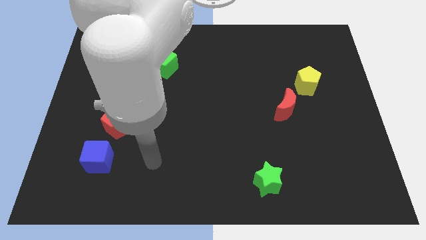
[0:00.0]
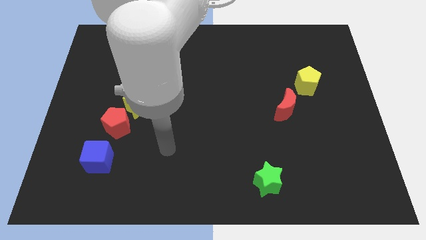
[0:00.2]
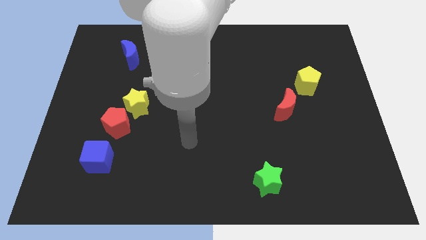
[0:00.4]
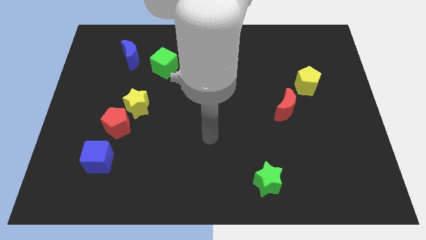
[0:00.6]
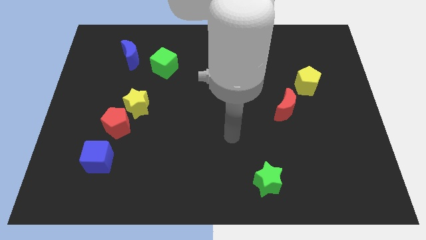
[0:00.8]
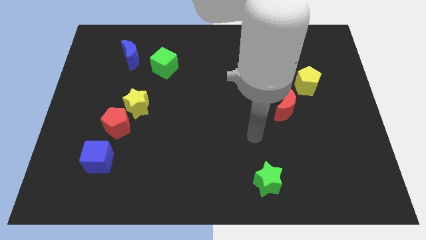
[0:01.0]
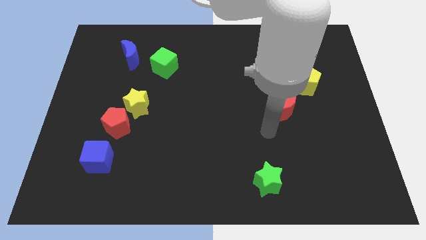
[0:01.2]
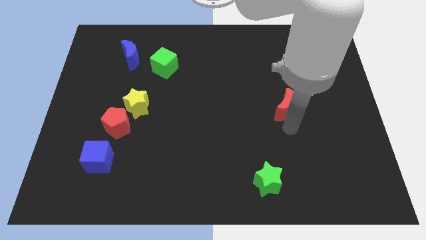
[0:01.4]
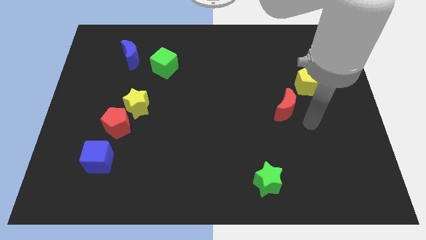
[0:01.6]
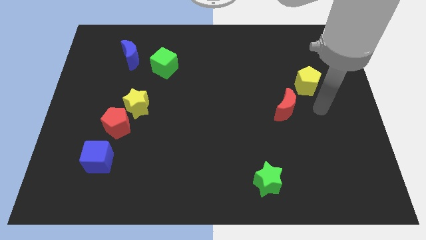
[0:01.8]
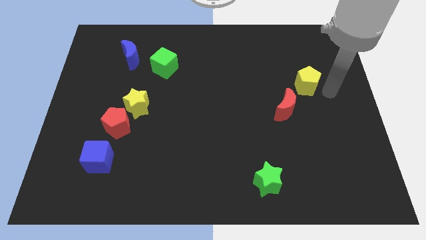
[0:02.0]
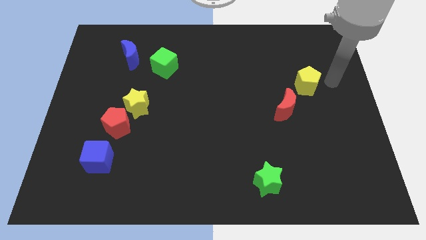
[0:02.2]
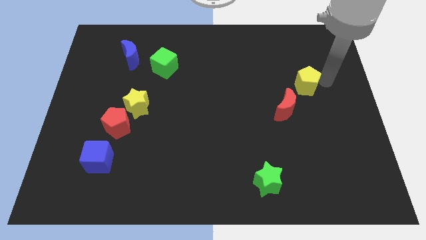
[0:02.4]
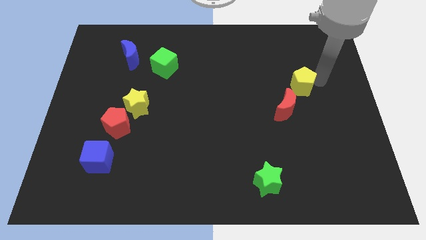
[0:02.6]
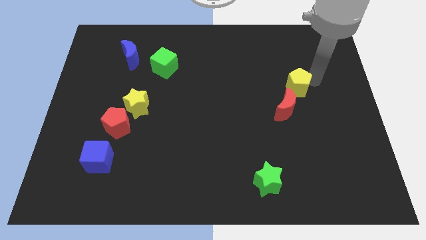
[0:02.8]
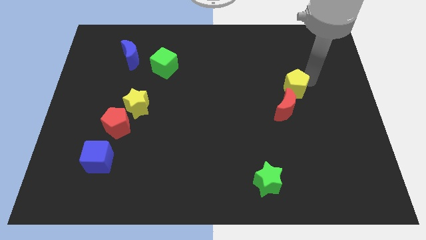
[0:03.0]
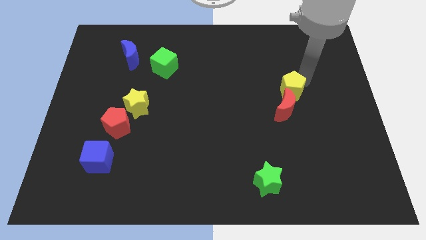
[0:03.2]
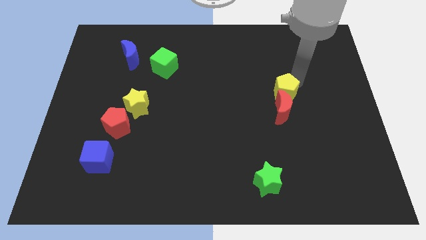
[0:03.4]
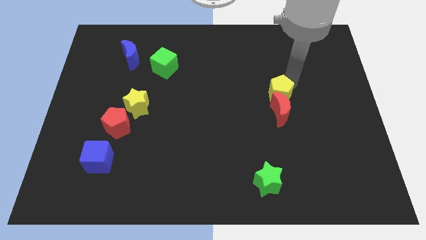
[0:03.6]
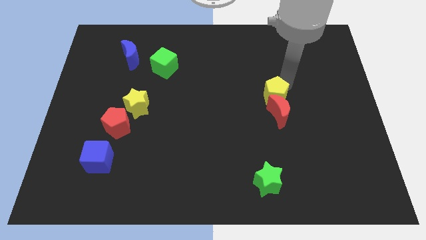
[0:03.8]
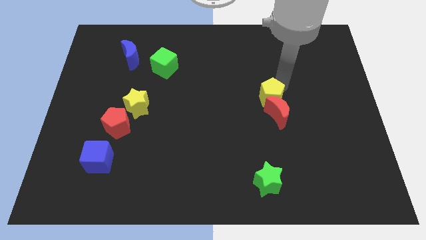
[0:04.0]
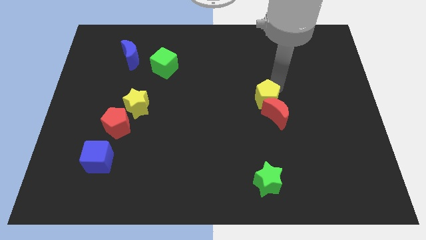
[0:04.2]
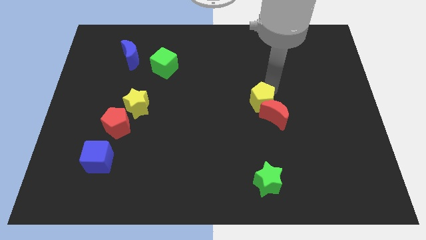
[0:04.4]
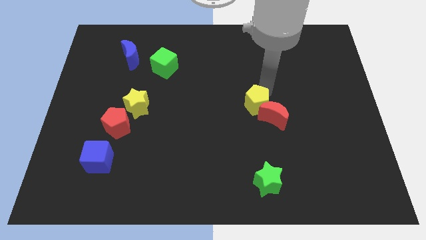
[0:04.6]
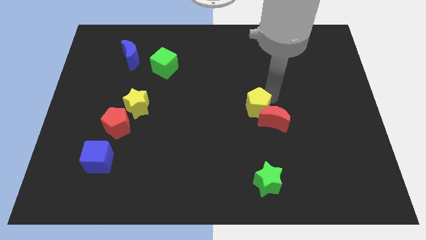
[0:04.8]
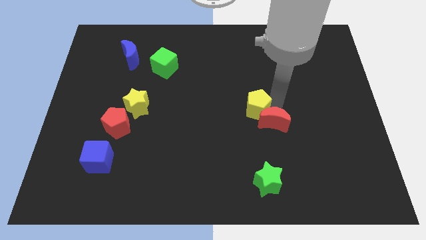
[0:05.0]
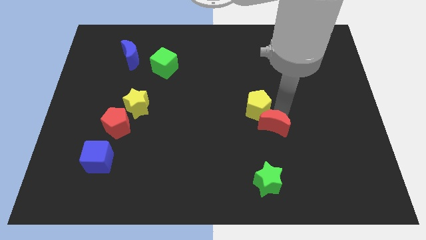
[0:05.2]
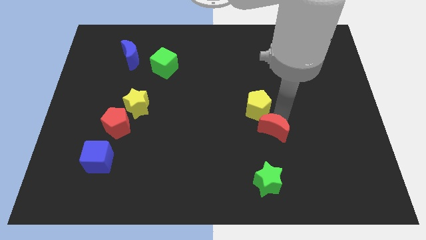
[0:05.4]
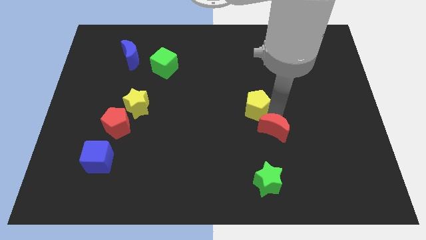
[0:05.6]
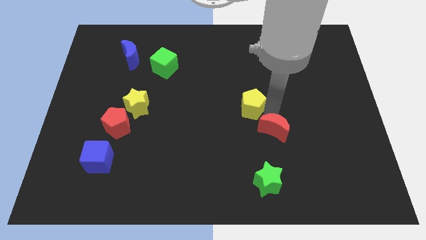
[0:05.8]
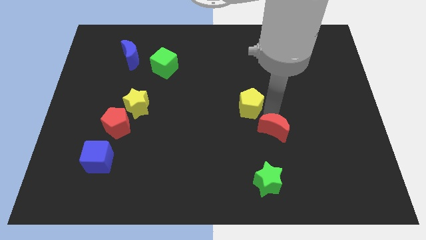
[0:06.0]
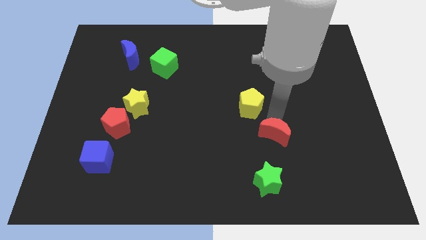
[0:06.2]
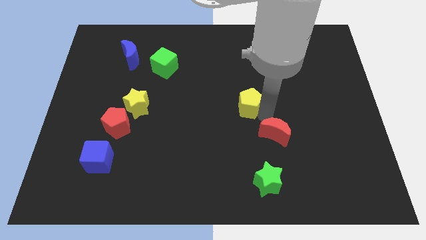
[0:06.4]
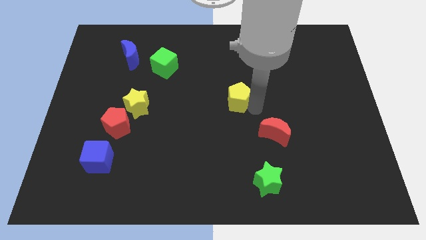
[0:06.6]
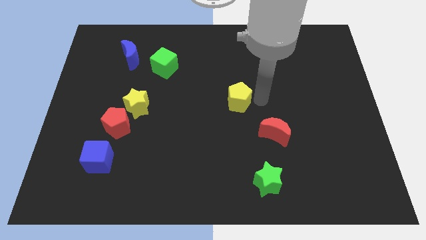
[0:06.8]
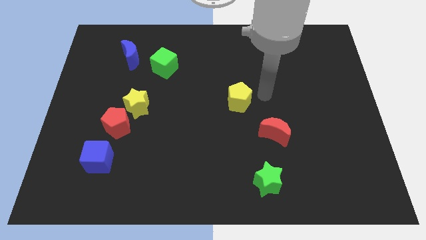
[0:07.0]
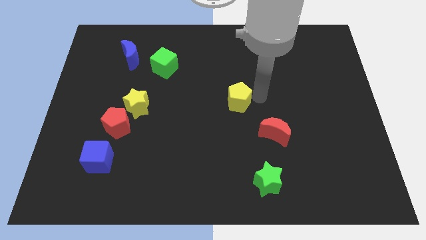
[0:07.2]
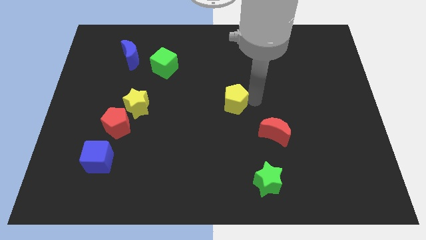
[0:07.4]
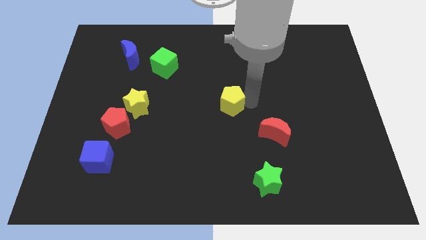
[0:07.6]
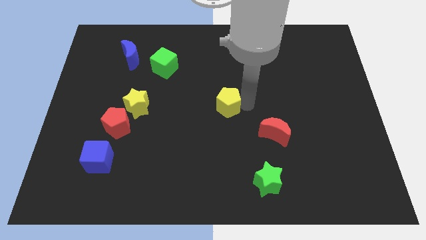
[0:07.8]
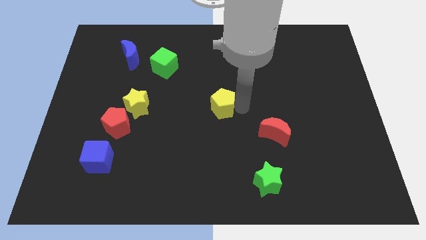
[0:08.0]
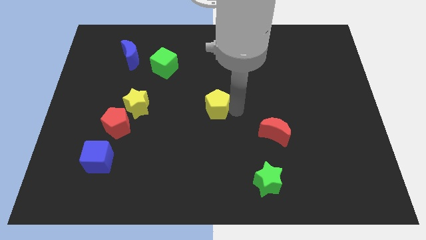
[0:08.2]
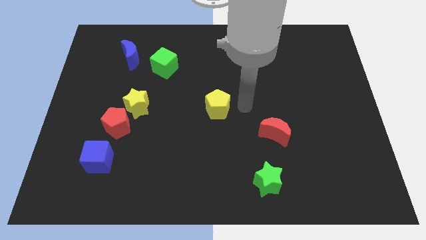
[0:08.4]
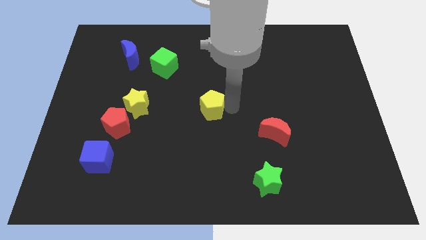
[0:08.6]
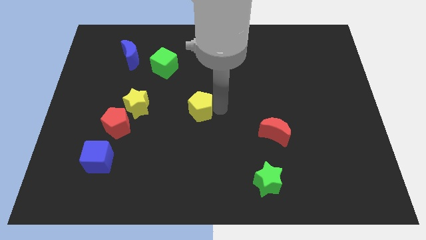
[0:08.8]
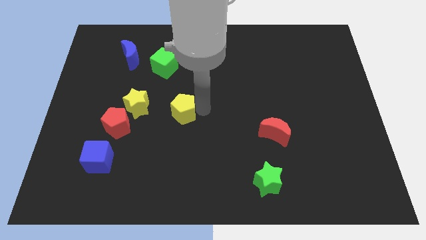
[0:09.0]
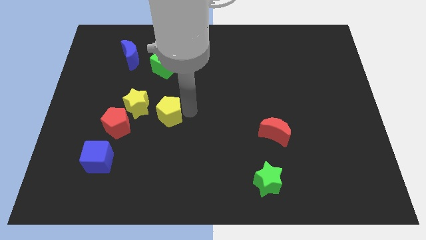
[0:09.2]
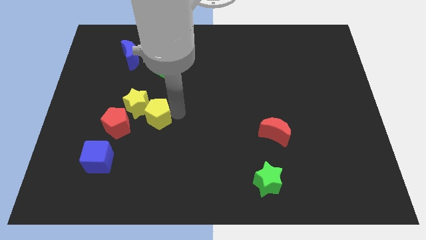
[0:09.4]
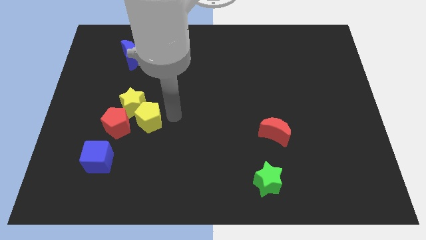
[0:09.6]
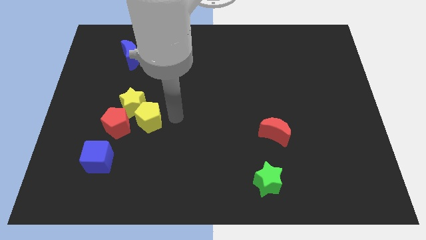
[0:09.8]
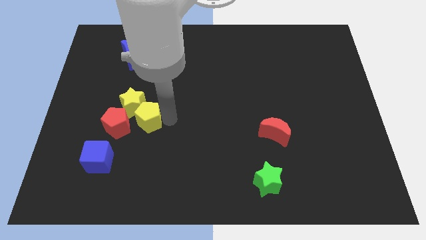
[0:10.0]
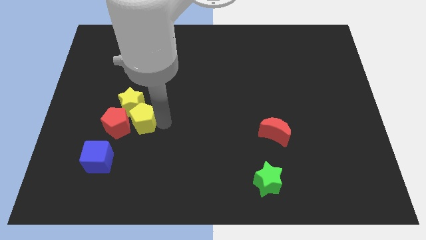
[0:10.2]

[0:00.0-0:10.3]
slide the yellow pentagon next to the red pentagon

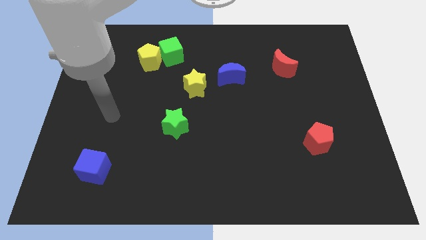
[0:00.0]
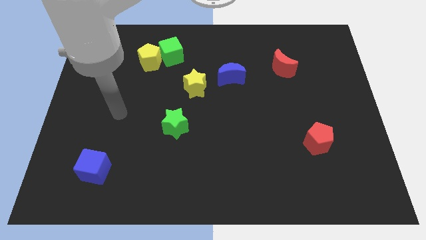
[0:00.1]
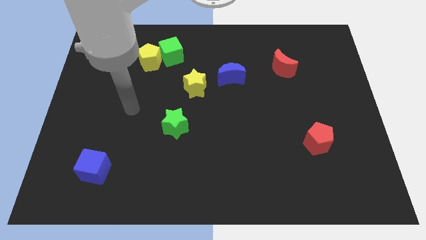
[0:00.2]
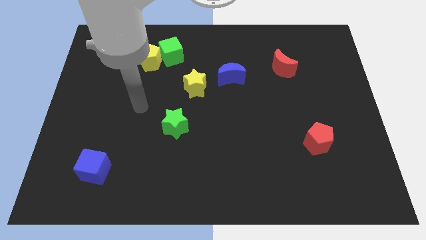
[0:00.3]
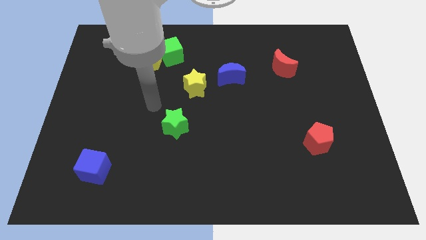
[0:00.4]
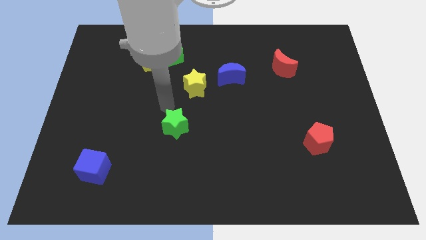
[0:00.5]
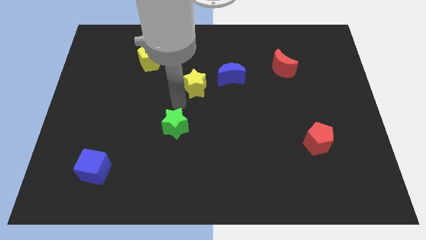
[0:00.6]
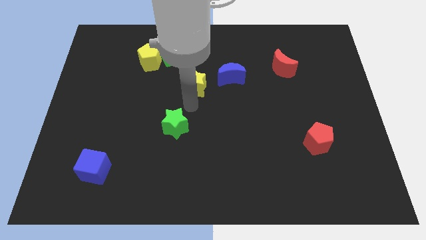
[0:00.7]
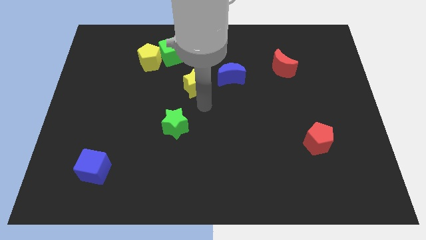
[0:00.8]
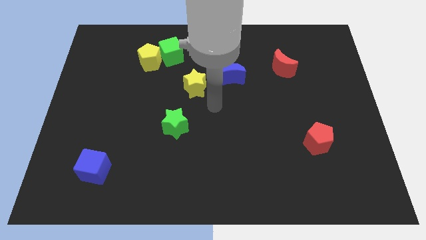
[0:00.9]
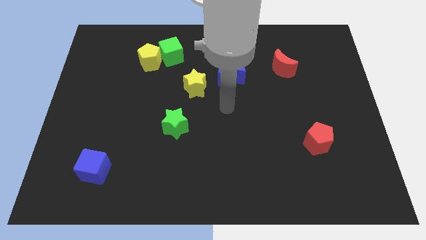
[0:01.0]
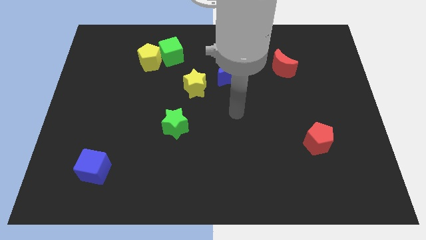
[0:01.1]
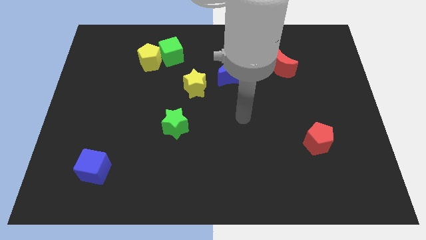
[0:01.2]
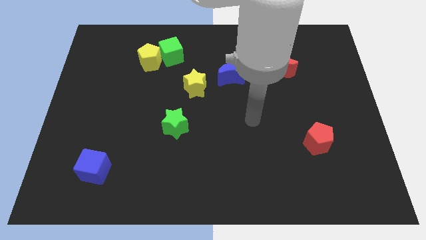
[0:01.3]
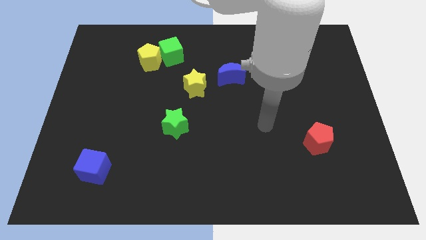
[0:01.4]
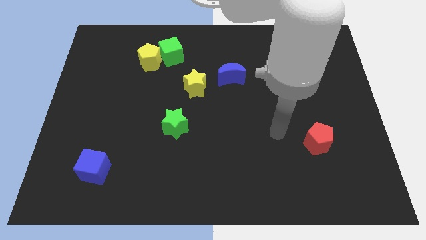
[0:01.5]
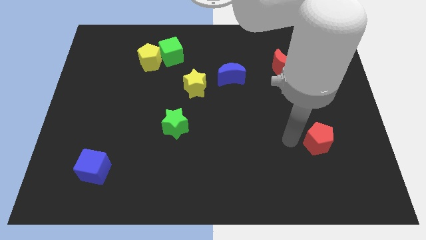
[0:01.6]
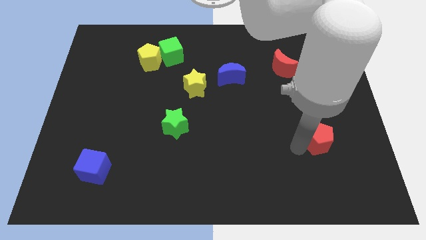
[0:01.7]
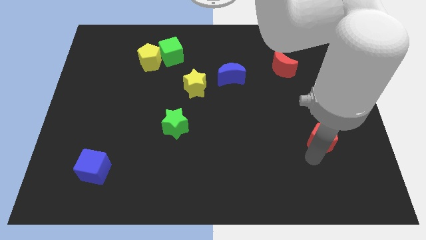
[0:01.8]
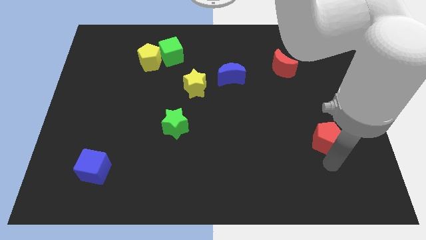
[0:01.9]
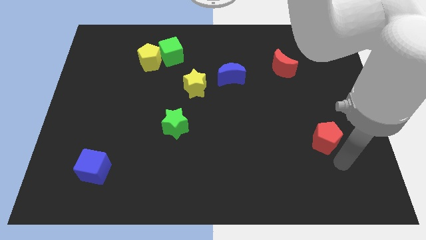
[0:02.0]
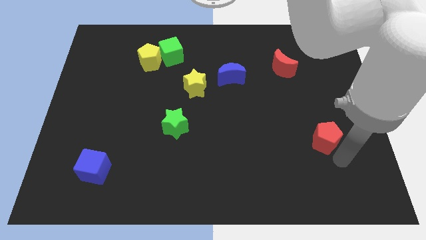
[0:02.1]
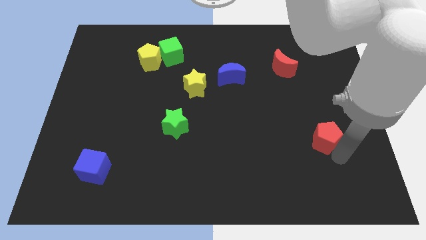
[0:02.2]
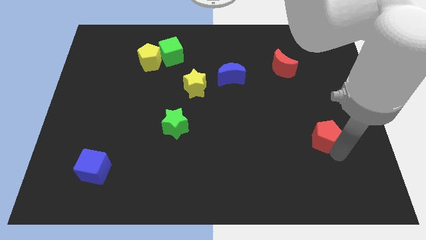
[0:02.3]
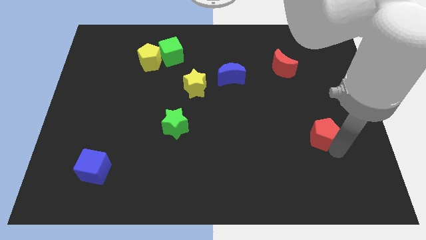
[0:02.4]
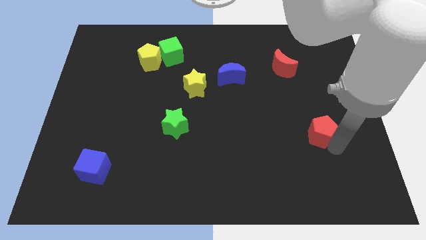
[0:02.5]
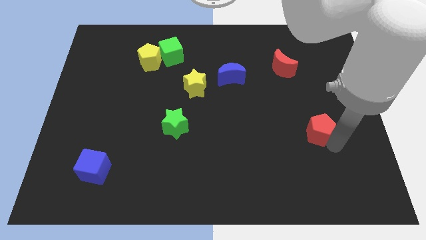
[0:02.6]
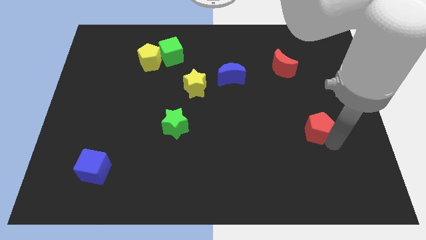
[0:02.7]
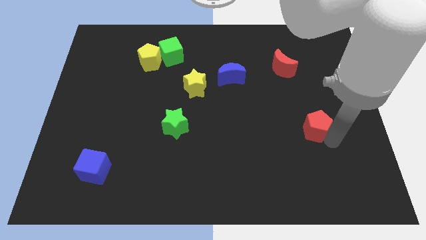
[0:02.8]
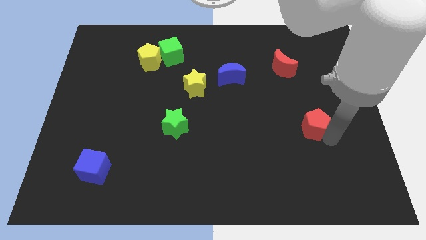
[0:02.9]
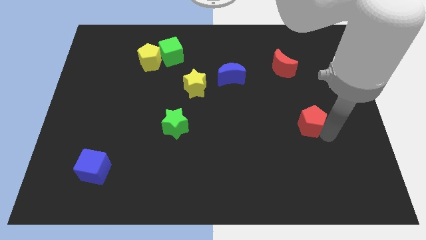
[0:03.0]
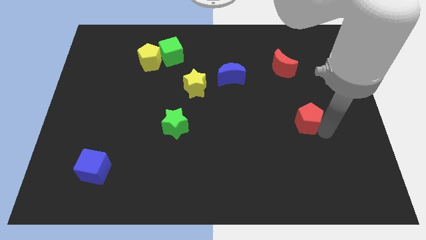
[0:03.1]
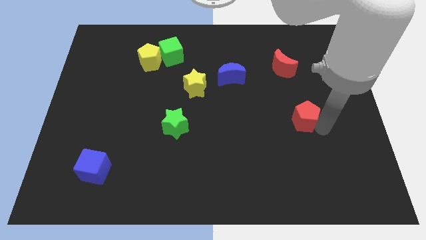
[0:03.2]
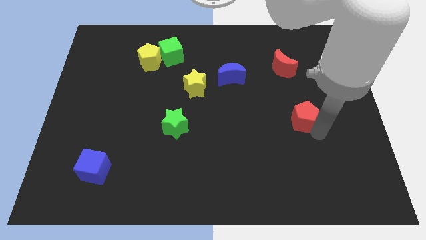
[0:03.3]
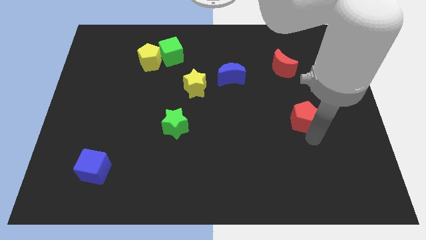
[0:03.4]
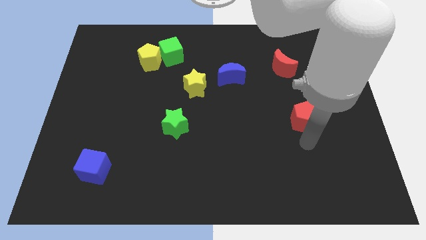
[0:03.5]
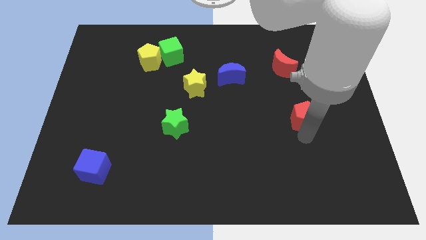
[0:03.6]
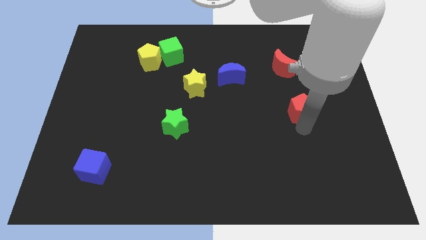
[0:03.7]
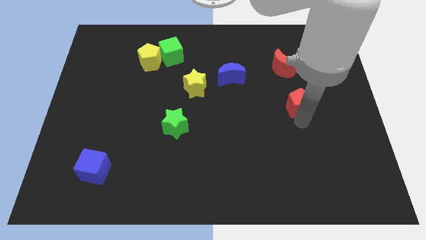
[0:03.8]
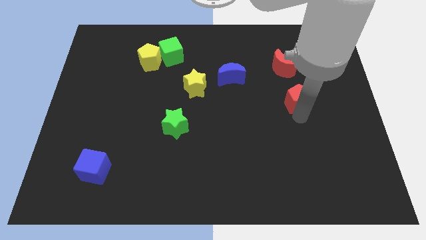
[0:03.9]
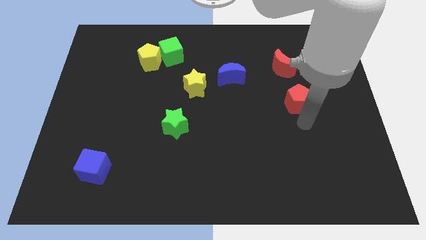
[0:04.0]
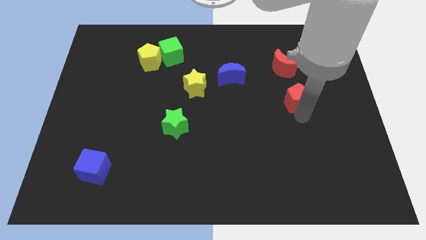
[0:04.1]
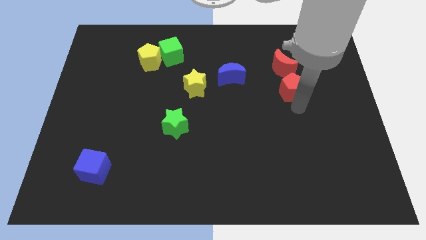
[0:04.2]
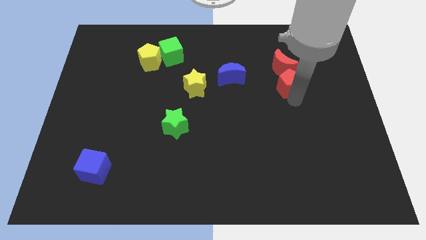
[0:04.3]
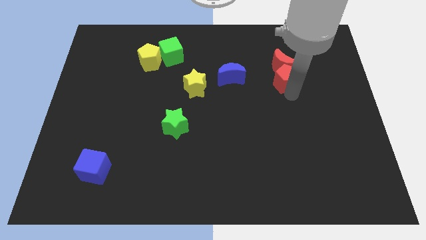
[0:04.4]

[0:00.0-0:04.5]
put the red pentagon next to the red moon
